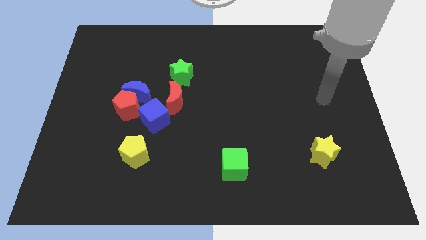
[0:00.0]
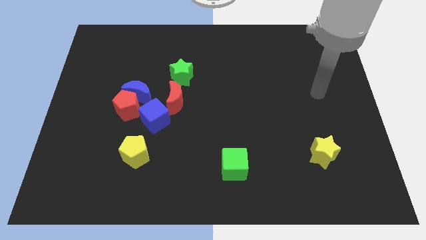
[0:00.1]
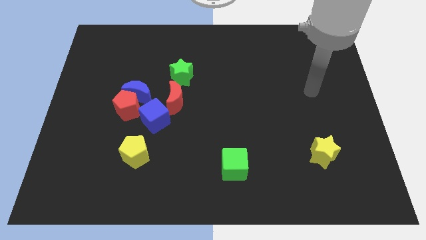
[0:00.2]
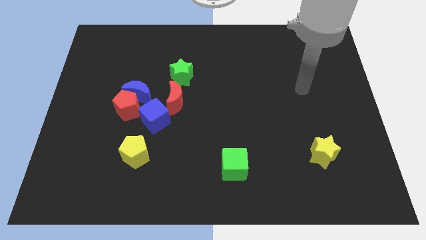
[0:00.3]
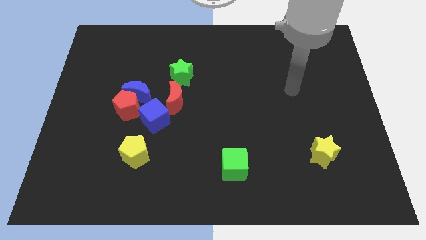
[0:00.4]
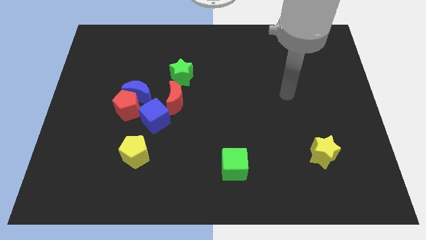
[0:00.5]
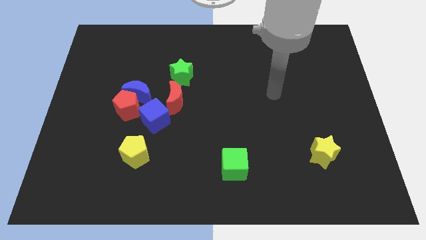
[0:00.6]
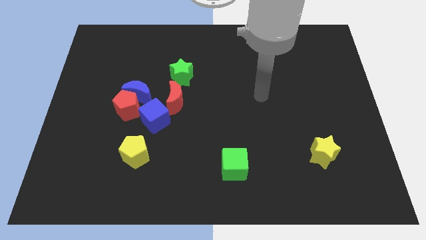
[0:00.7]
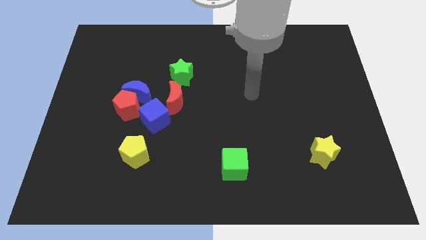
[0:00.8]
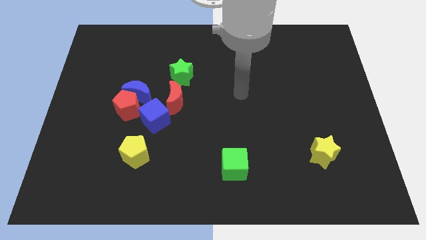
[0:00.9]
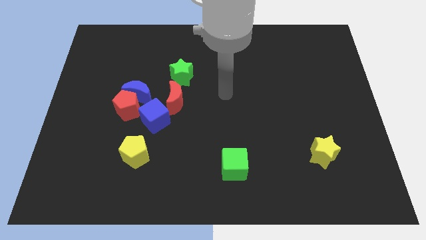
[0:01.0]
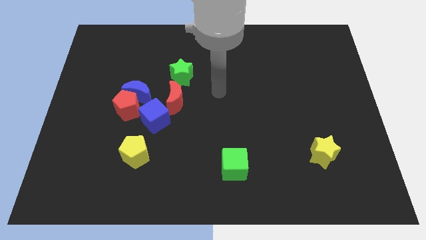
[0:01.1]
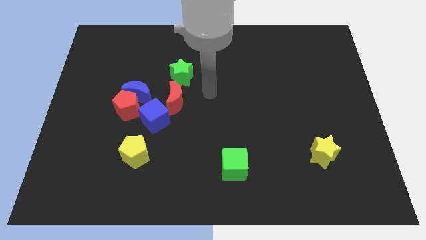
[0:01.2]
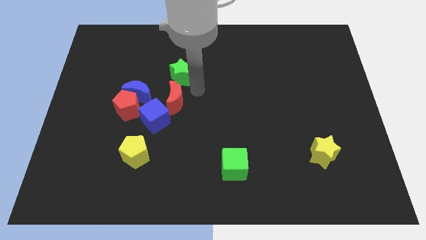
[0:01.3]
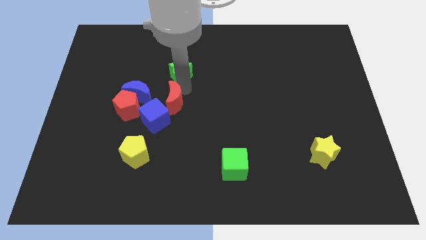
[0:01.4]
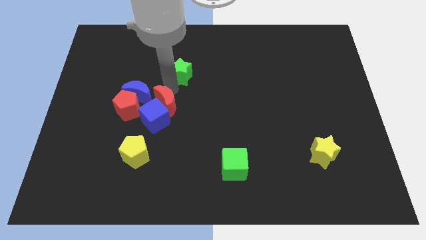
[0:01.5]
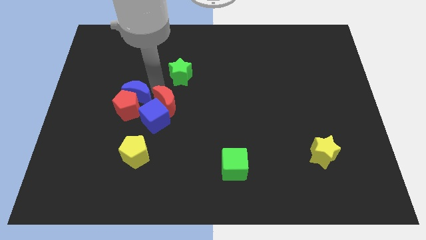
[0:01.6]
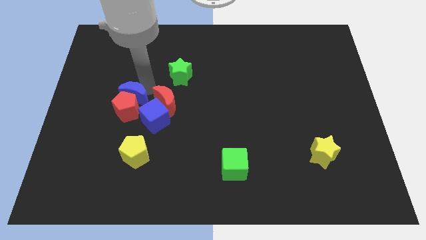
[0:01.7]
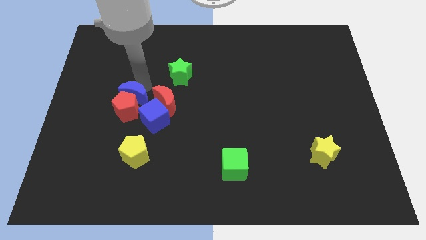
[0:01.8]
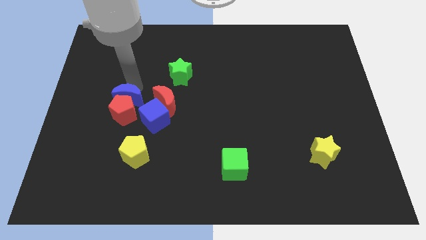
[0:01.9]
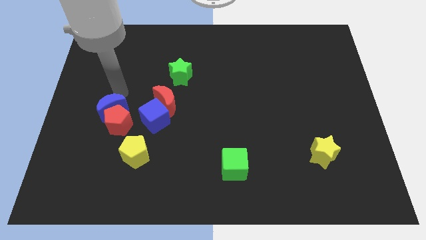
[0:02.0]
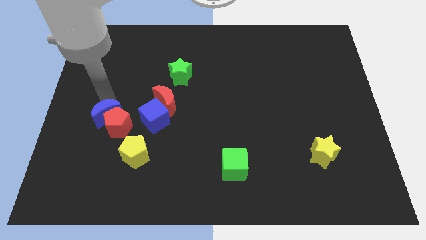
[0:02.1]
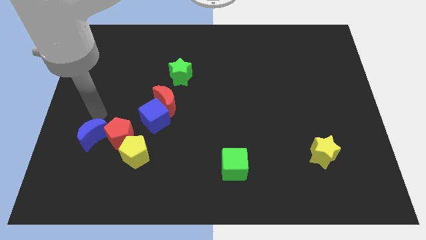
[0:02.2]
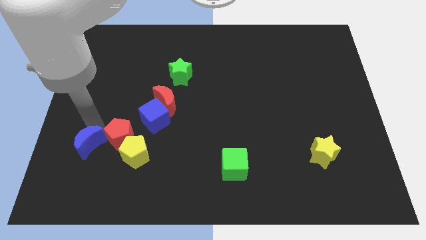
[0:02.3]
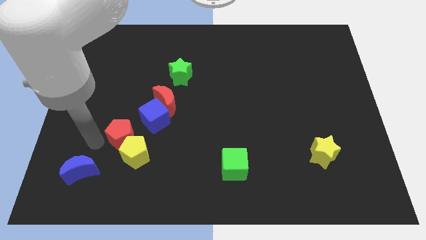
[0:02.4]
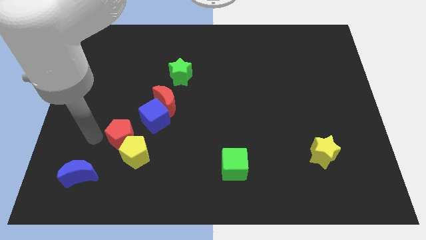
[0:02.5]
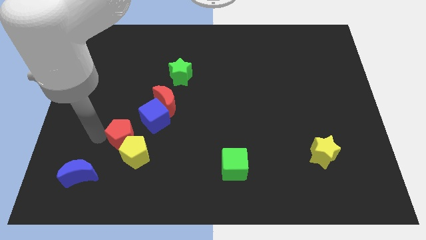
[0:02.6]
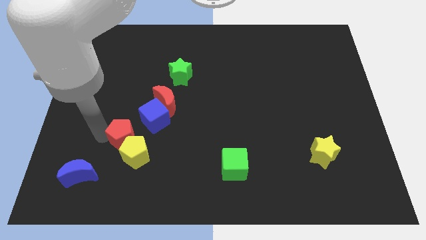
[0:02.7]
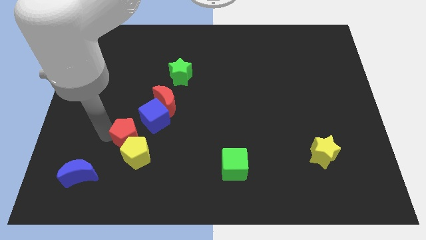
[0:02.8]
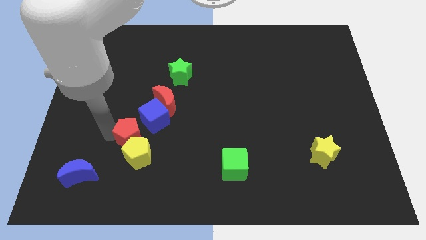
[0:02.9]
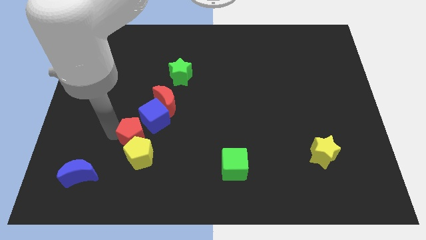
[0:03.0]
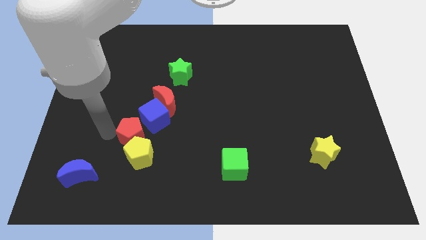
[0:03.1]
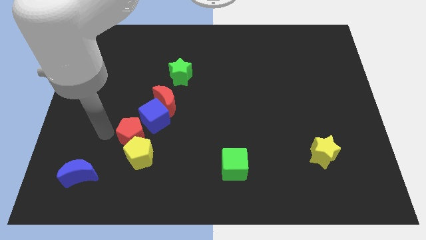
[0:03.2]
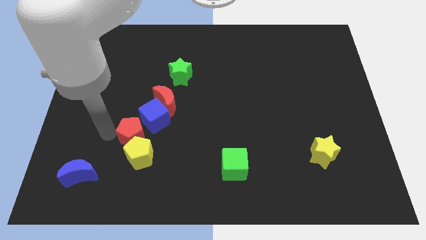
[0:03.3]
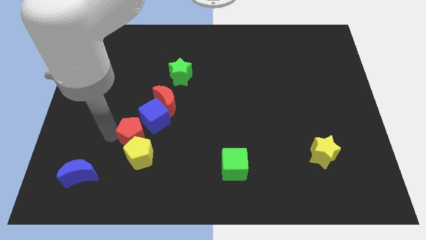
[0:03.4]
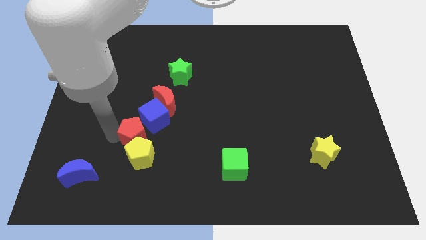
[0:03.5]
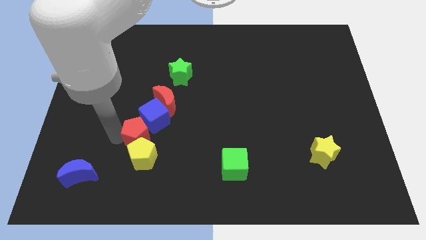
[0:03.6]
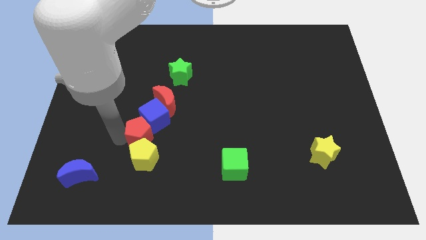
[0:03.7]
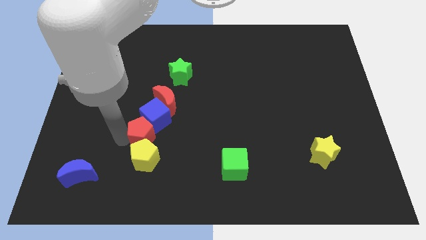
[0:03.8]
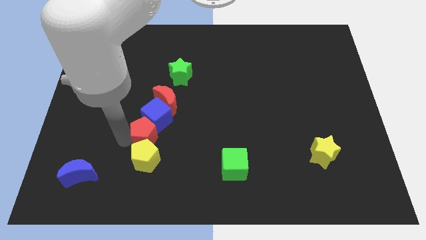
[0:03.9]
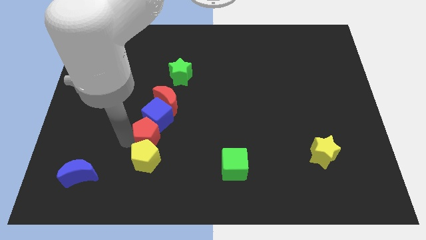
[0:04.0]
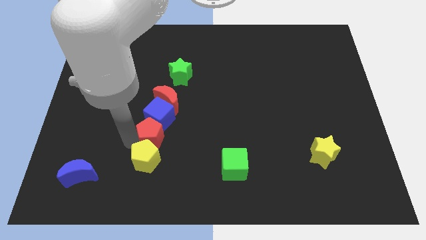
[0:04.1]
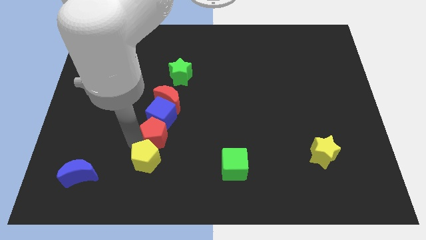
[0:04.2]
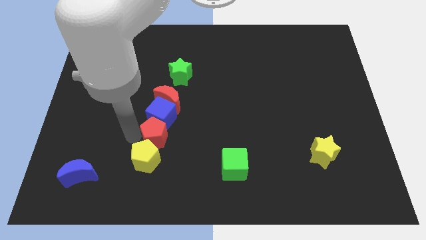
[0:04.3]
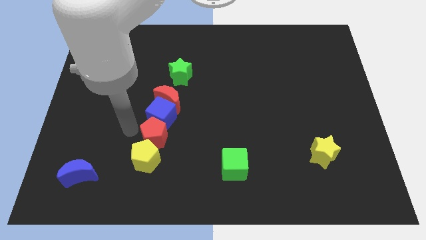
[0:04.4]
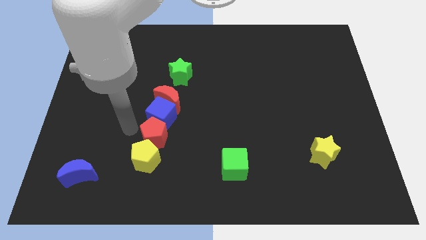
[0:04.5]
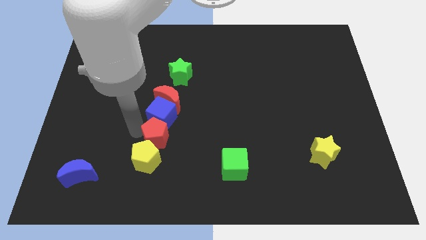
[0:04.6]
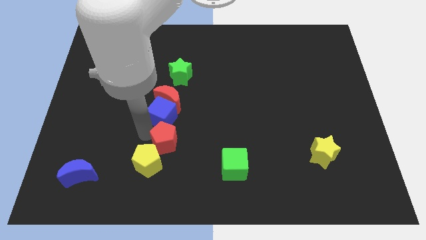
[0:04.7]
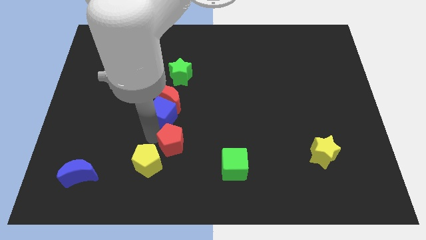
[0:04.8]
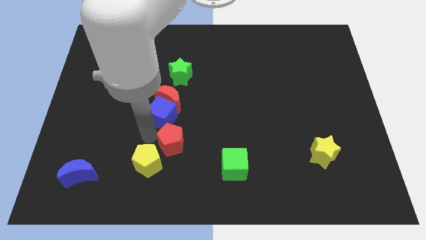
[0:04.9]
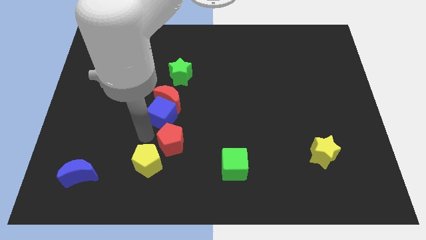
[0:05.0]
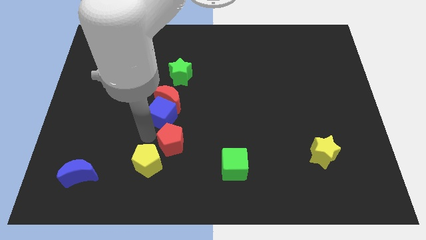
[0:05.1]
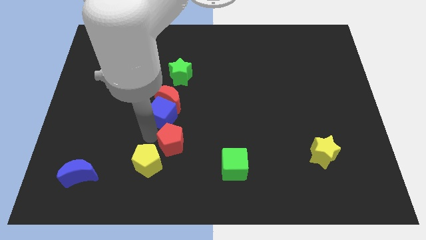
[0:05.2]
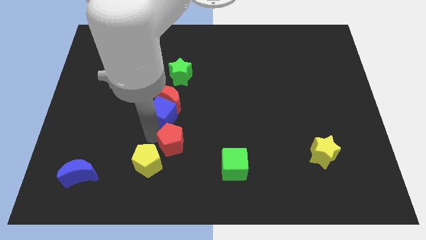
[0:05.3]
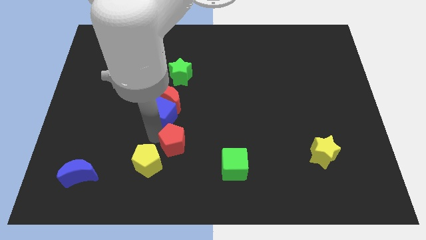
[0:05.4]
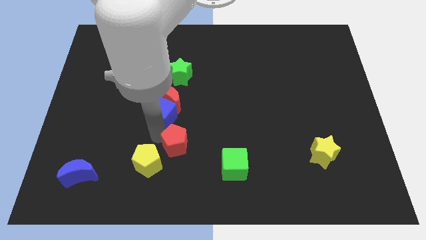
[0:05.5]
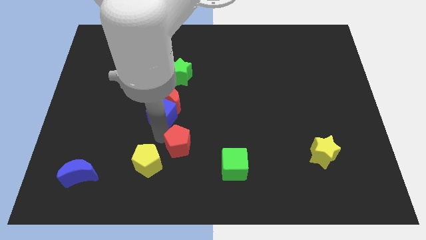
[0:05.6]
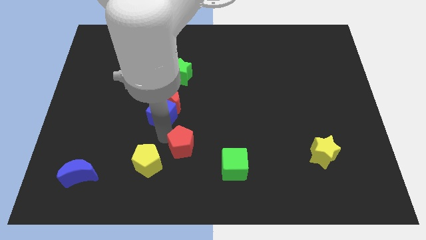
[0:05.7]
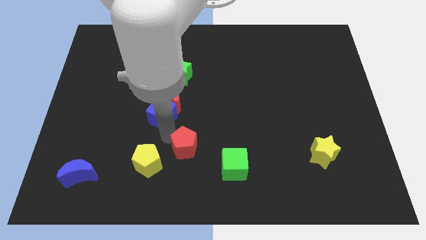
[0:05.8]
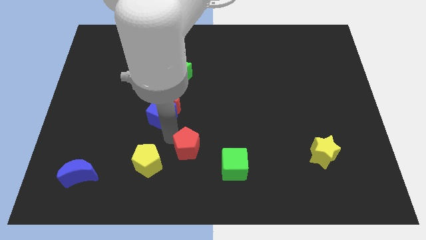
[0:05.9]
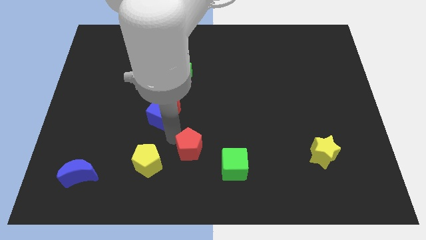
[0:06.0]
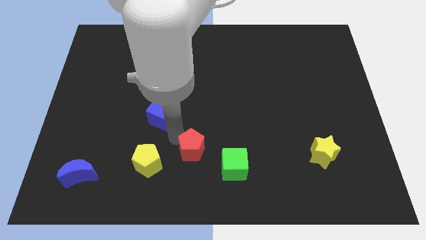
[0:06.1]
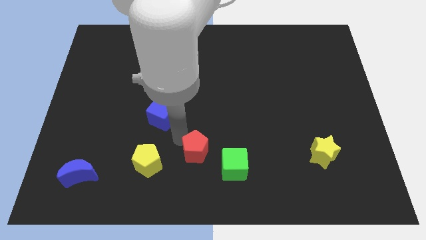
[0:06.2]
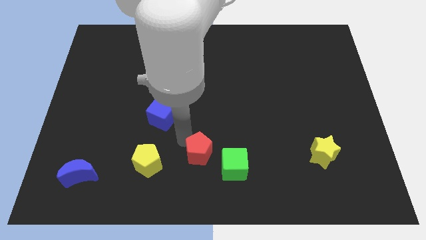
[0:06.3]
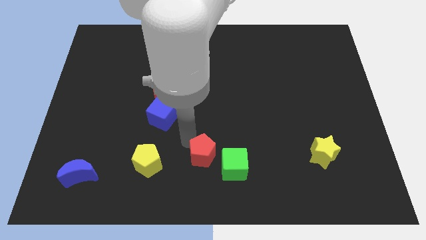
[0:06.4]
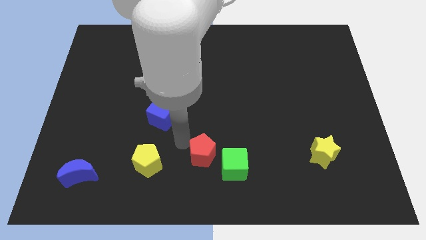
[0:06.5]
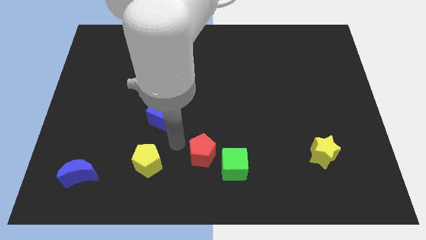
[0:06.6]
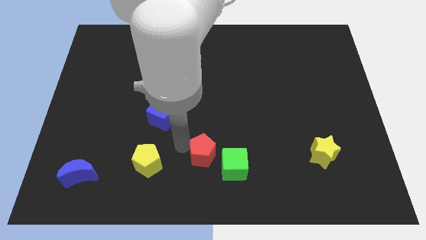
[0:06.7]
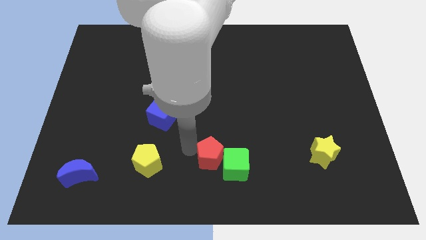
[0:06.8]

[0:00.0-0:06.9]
put the red pentagon towards the green cube
